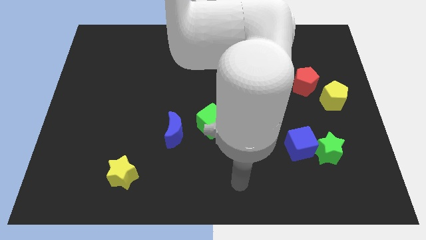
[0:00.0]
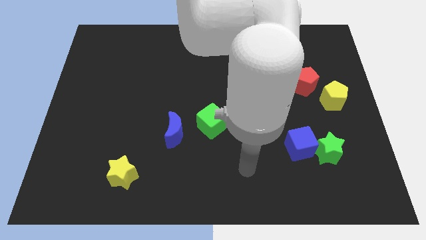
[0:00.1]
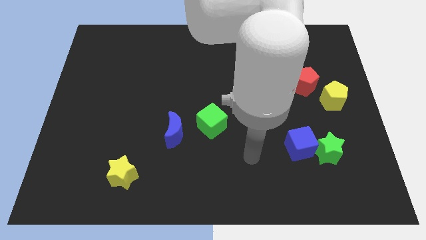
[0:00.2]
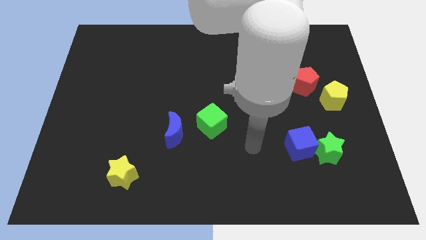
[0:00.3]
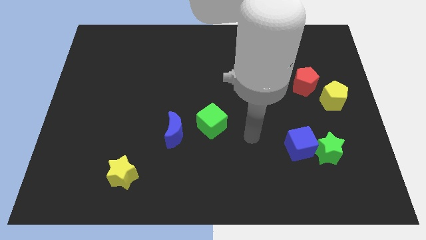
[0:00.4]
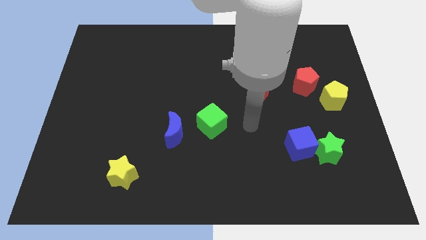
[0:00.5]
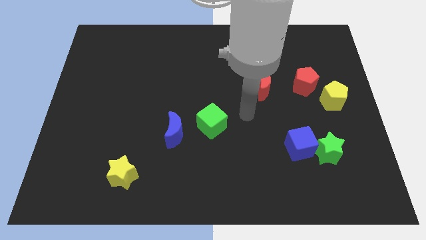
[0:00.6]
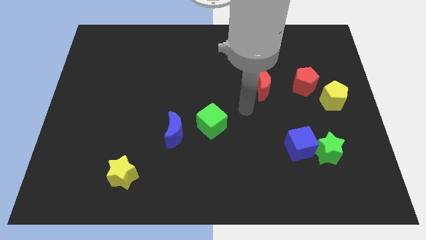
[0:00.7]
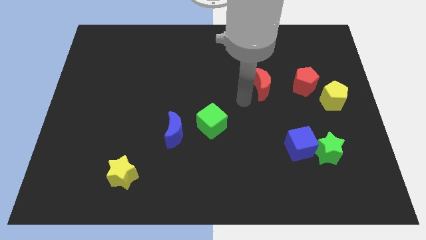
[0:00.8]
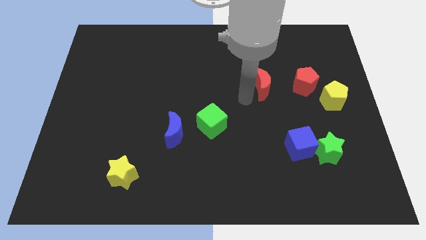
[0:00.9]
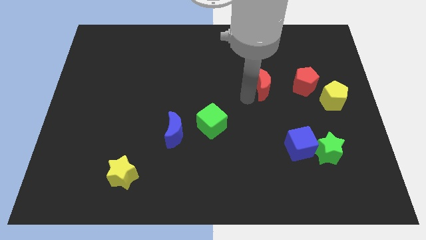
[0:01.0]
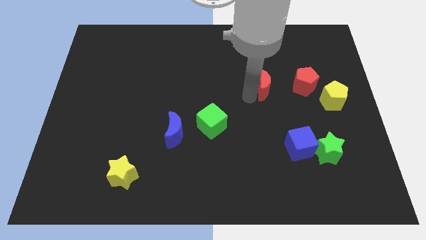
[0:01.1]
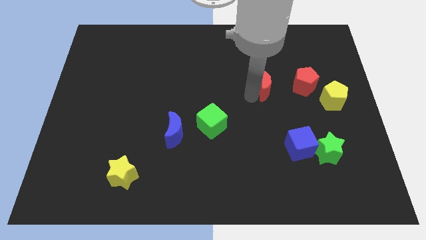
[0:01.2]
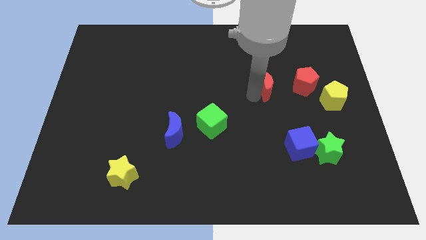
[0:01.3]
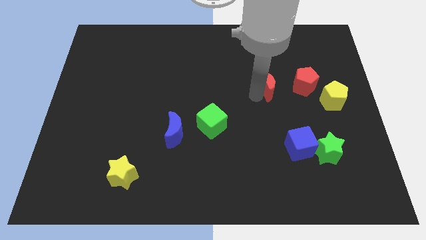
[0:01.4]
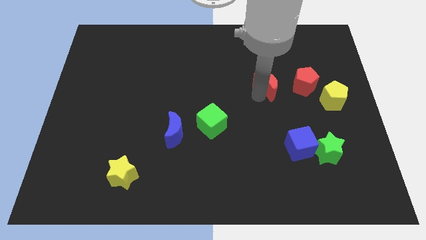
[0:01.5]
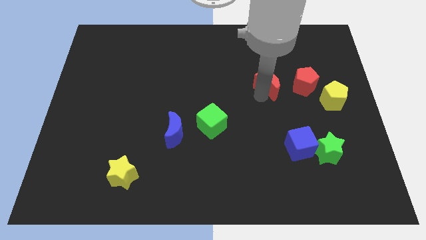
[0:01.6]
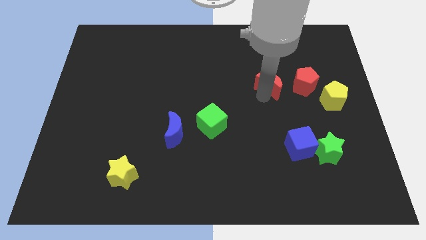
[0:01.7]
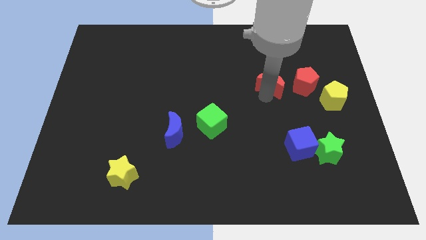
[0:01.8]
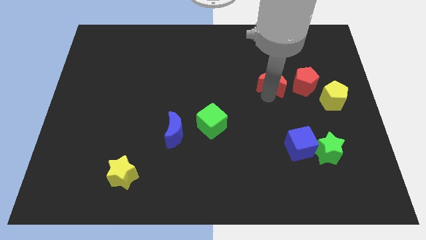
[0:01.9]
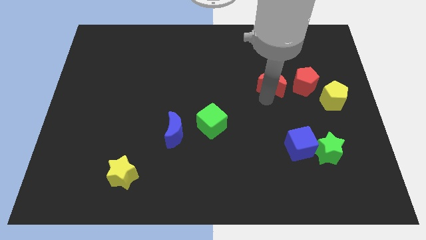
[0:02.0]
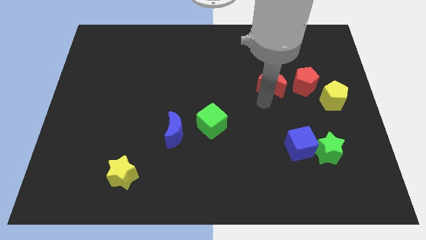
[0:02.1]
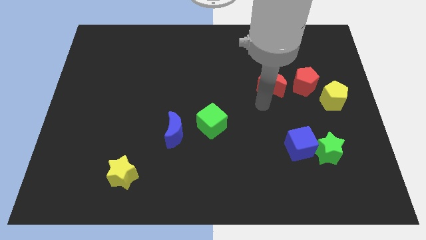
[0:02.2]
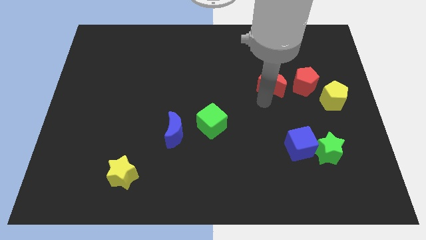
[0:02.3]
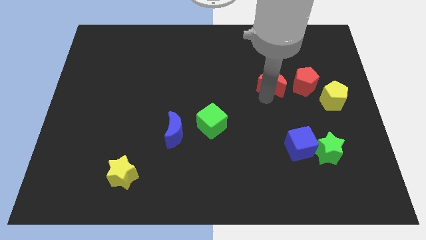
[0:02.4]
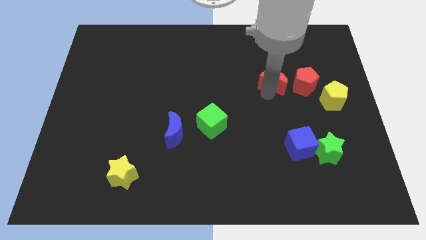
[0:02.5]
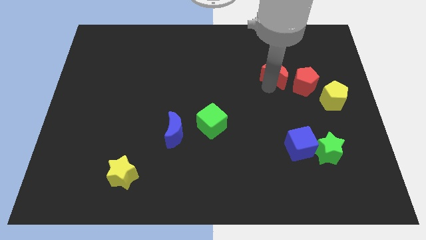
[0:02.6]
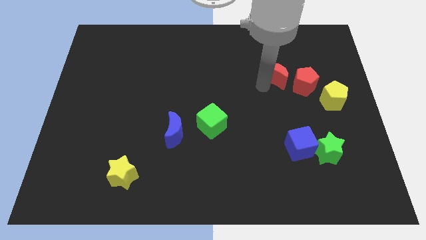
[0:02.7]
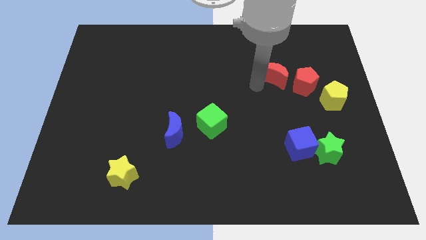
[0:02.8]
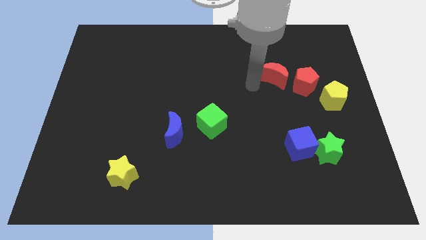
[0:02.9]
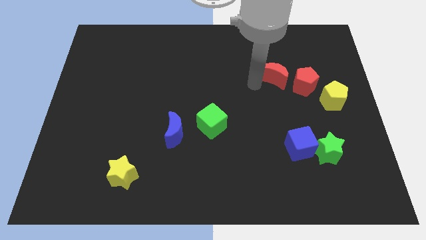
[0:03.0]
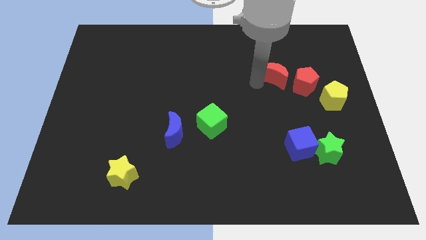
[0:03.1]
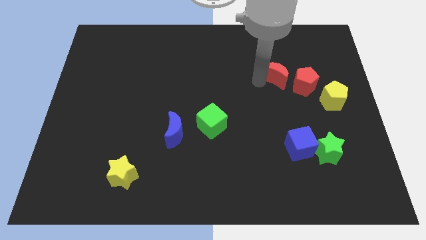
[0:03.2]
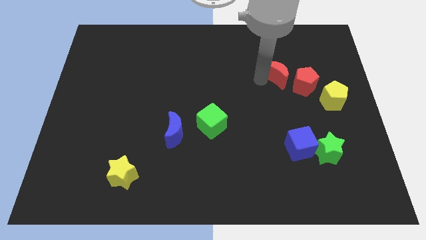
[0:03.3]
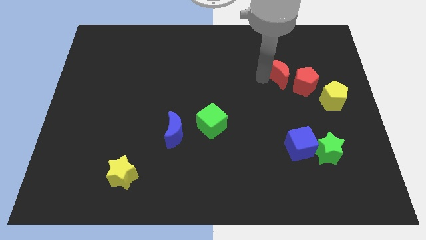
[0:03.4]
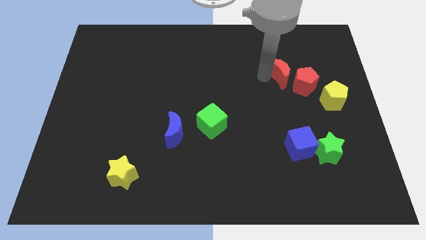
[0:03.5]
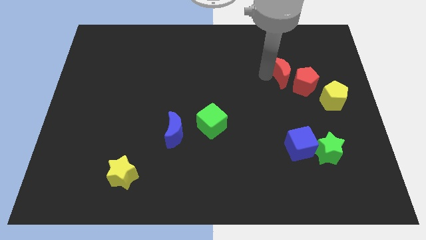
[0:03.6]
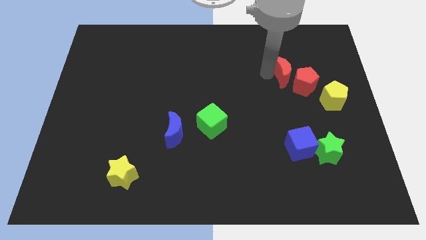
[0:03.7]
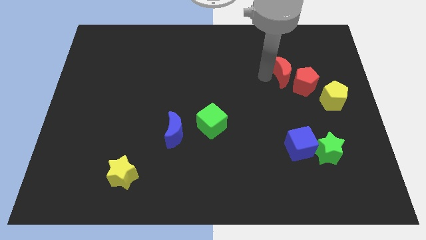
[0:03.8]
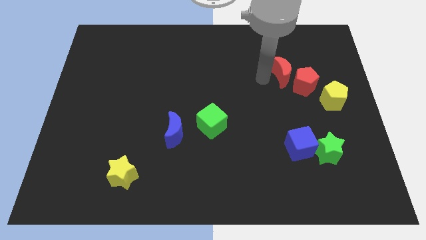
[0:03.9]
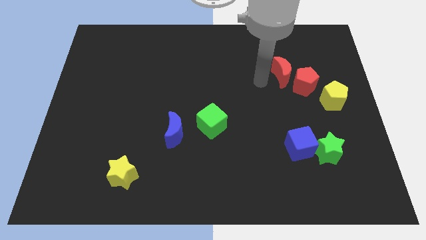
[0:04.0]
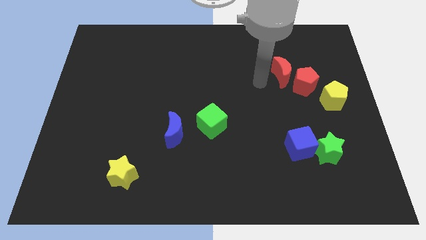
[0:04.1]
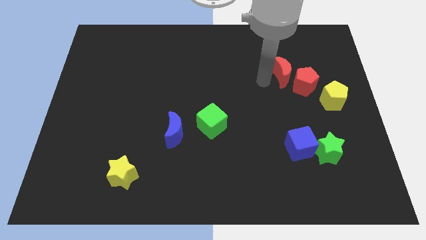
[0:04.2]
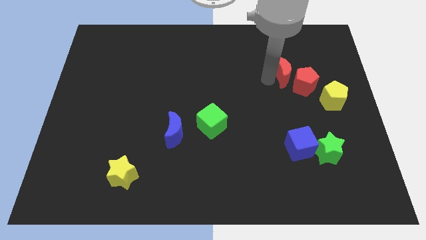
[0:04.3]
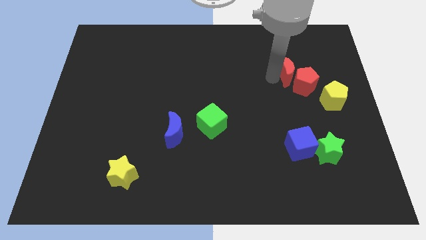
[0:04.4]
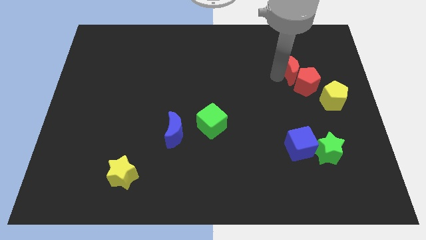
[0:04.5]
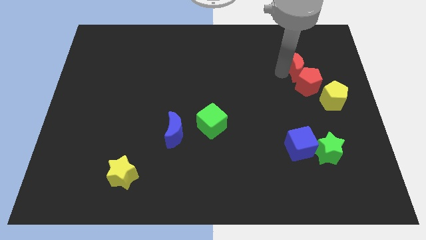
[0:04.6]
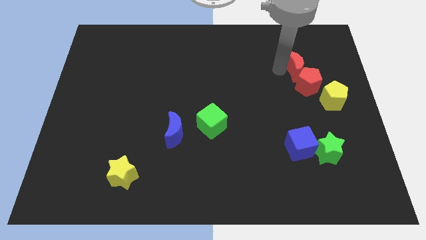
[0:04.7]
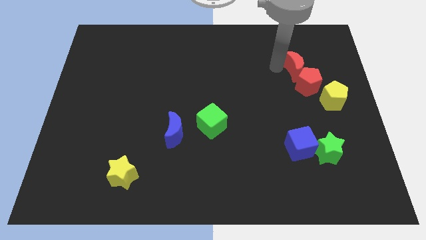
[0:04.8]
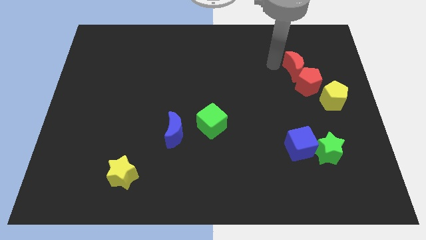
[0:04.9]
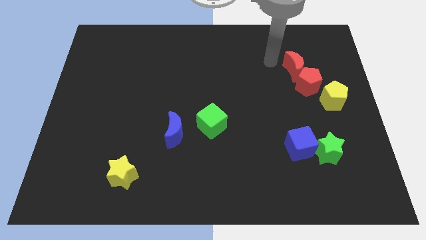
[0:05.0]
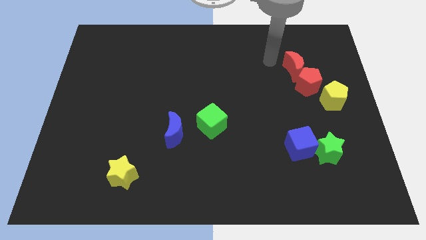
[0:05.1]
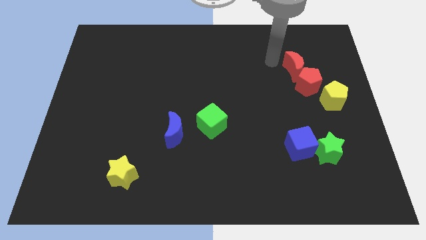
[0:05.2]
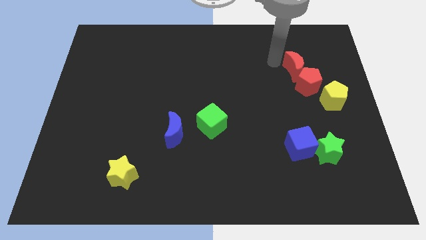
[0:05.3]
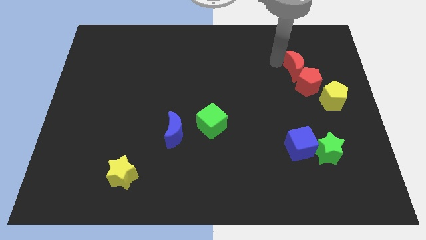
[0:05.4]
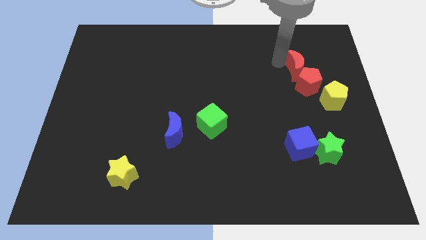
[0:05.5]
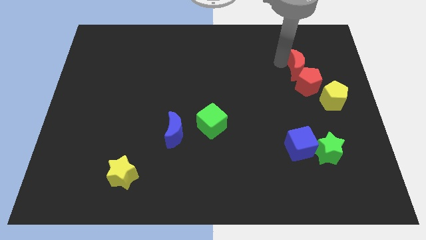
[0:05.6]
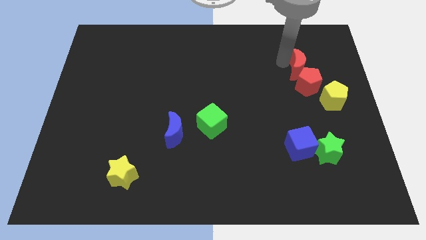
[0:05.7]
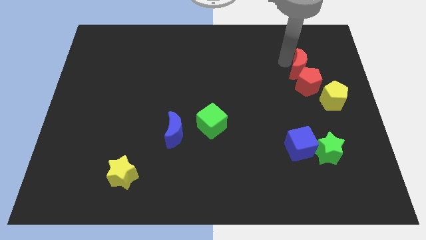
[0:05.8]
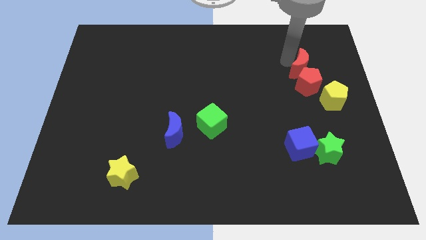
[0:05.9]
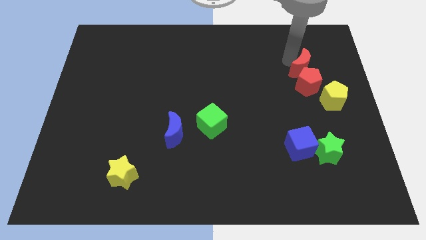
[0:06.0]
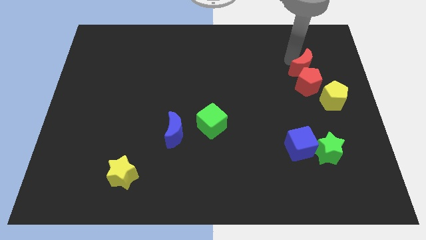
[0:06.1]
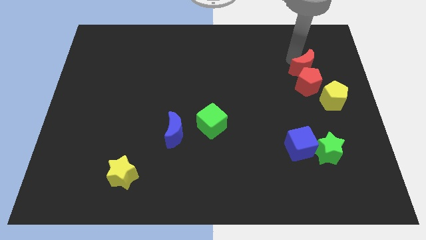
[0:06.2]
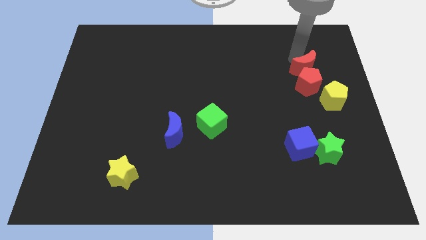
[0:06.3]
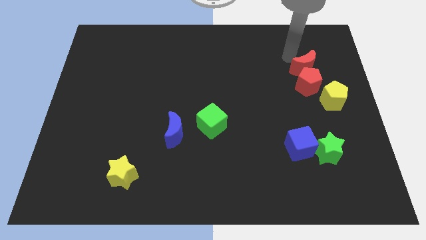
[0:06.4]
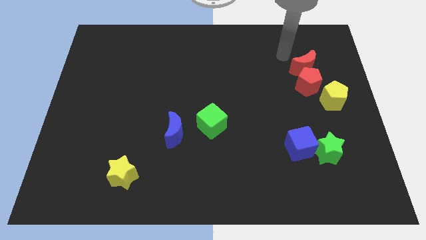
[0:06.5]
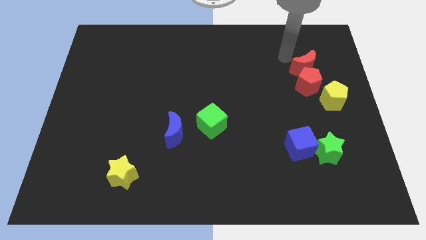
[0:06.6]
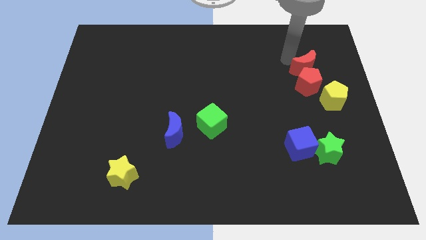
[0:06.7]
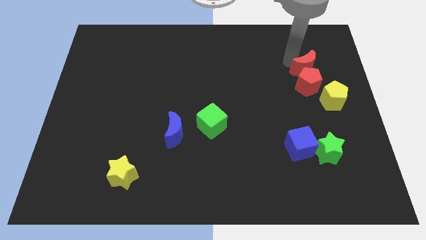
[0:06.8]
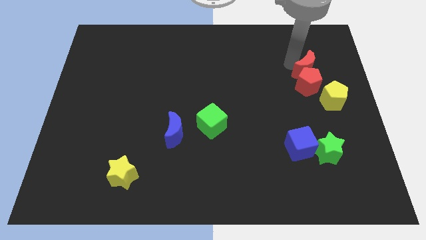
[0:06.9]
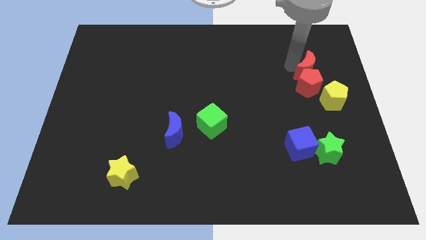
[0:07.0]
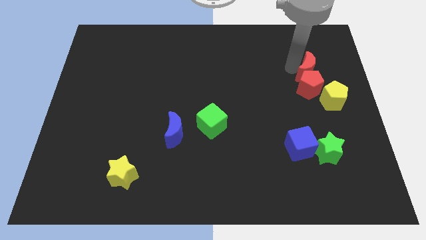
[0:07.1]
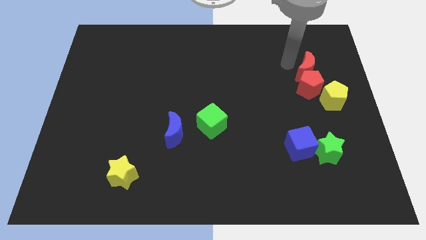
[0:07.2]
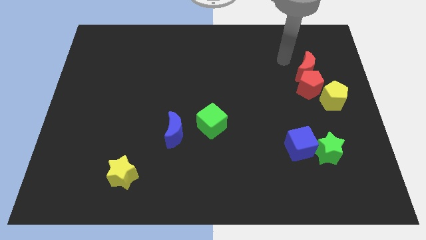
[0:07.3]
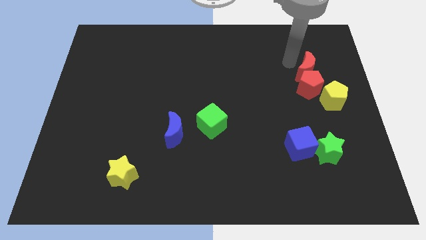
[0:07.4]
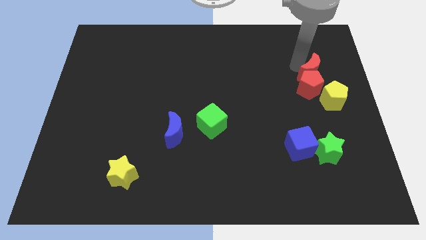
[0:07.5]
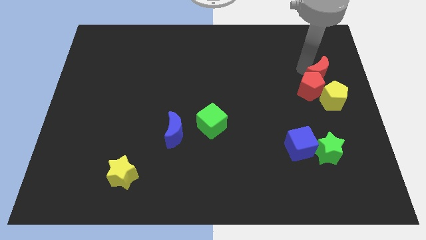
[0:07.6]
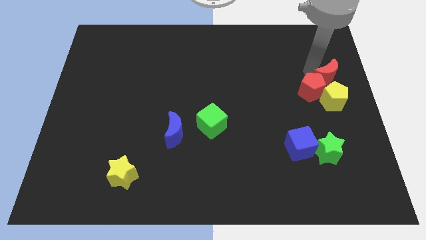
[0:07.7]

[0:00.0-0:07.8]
put the red moon to the right side
